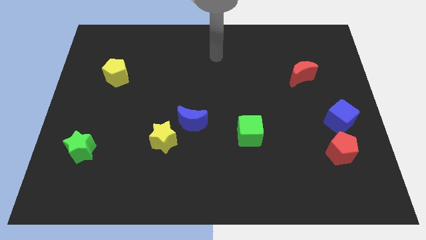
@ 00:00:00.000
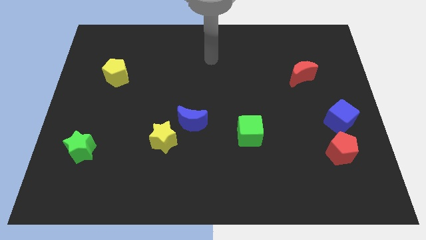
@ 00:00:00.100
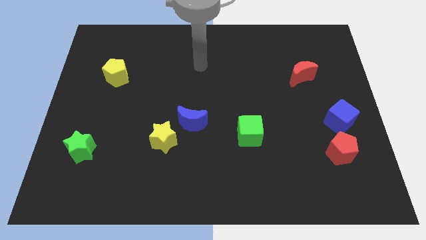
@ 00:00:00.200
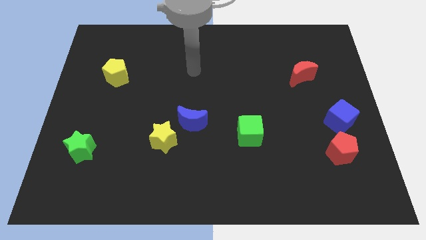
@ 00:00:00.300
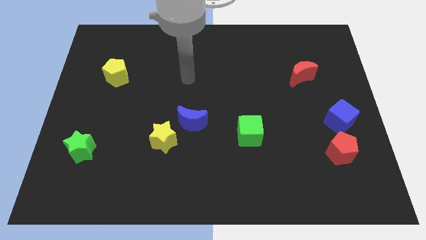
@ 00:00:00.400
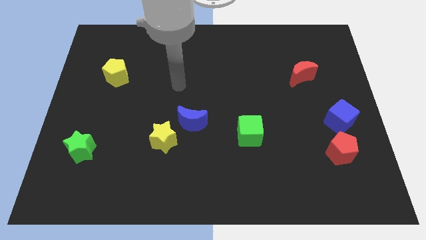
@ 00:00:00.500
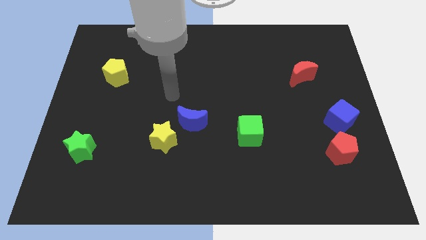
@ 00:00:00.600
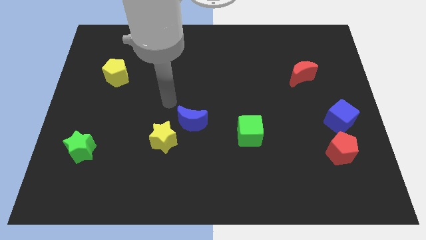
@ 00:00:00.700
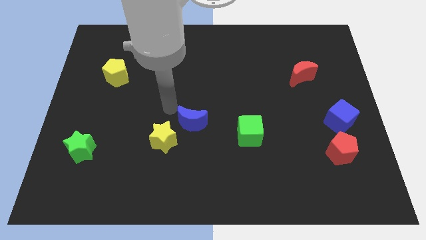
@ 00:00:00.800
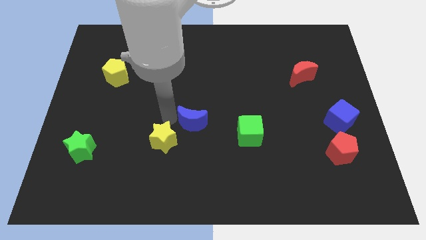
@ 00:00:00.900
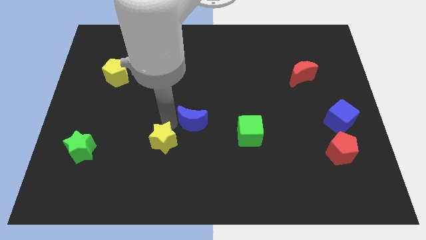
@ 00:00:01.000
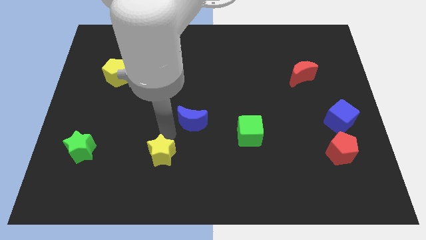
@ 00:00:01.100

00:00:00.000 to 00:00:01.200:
pull the blue moon apart from the yellow star

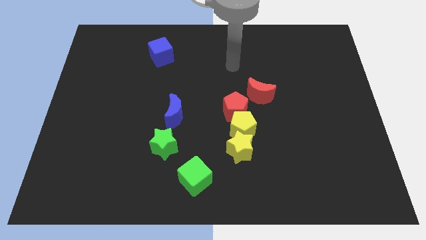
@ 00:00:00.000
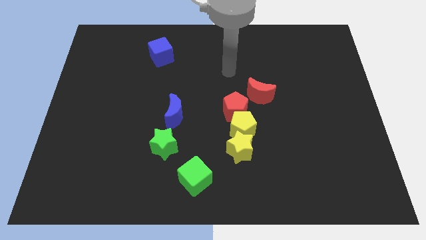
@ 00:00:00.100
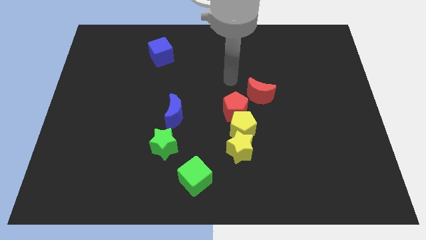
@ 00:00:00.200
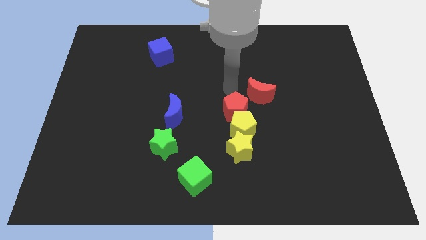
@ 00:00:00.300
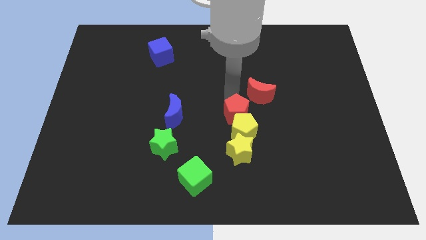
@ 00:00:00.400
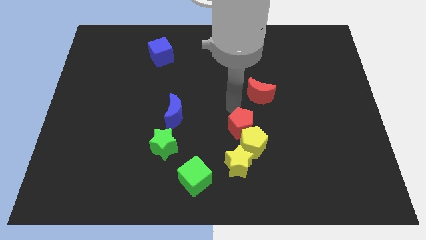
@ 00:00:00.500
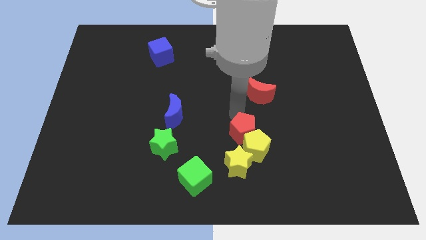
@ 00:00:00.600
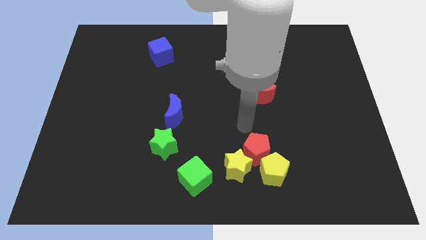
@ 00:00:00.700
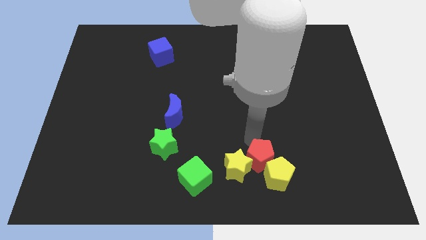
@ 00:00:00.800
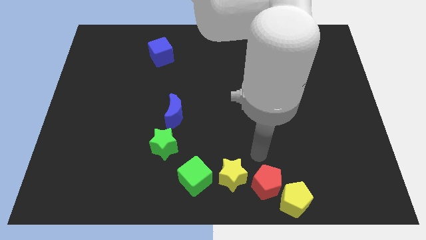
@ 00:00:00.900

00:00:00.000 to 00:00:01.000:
separate the yellow star from the yellow pentagon

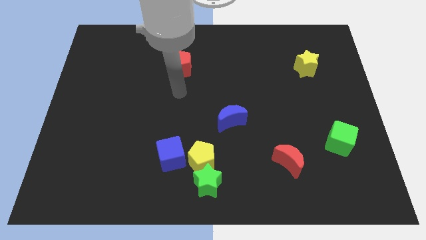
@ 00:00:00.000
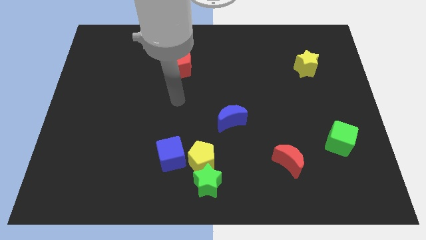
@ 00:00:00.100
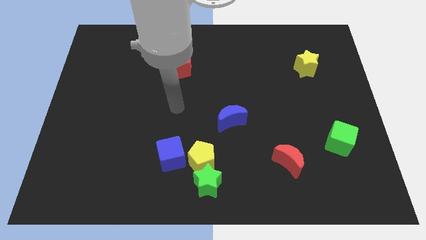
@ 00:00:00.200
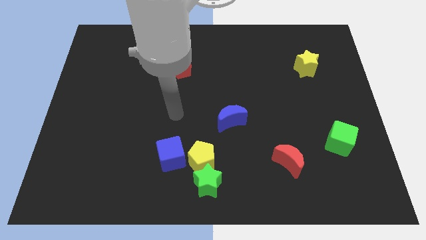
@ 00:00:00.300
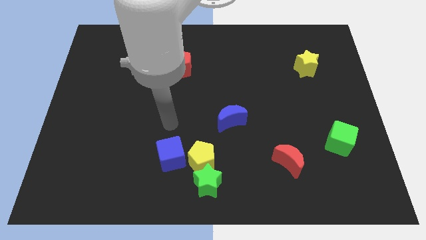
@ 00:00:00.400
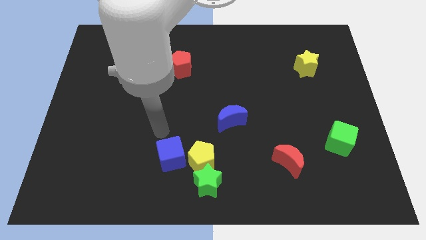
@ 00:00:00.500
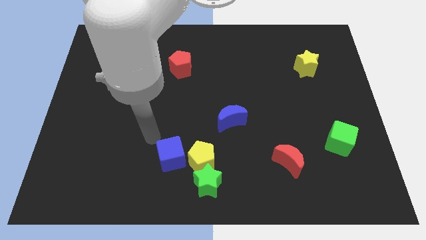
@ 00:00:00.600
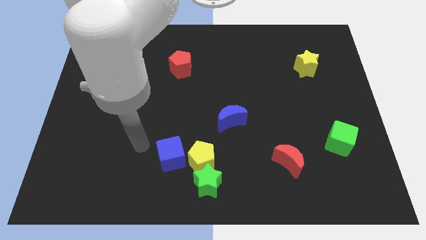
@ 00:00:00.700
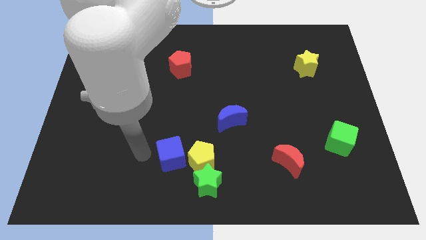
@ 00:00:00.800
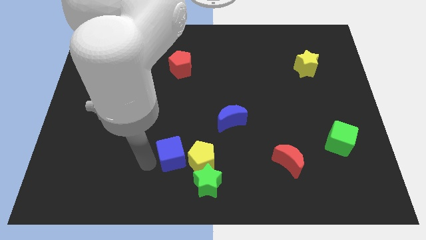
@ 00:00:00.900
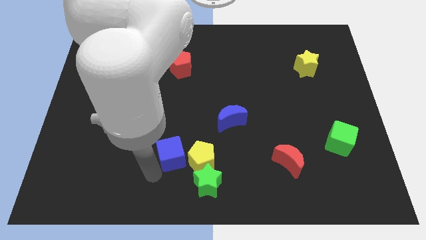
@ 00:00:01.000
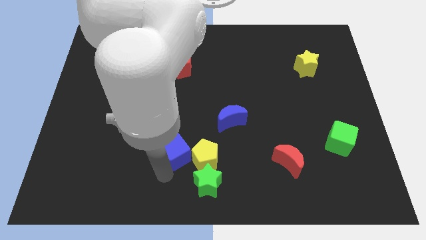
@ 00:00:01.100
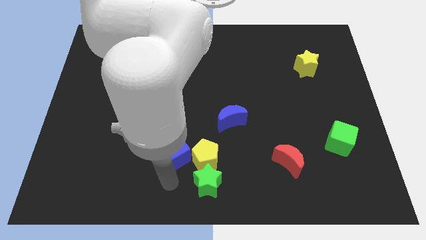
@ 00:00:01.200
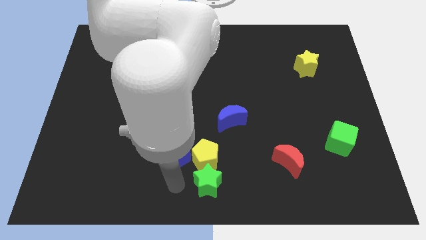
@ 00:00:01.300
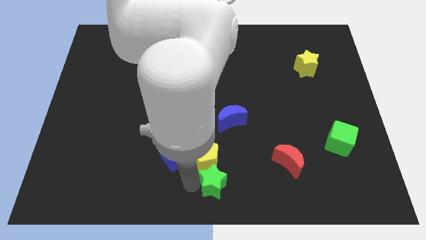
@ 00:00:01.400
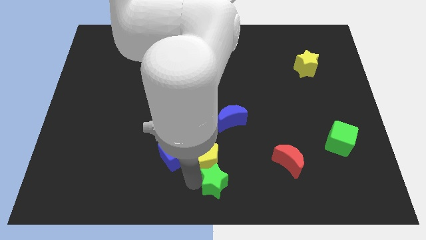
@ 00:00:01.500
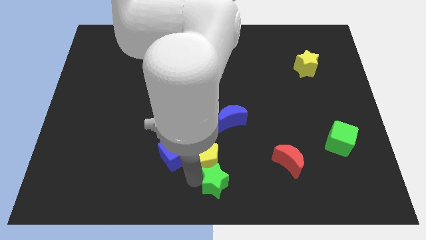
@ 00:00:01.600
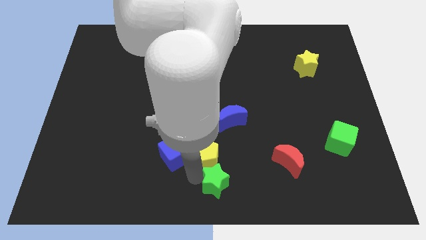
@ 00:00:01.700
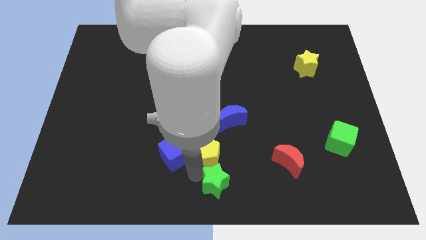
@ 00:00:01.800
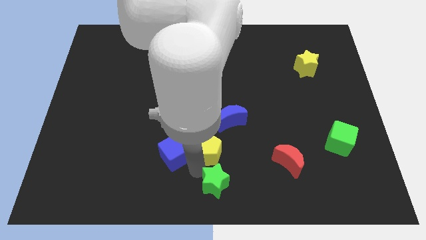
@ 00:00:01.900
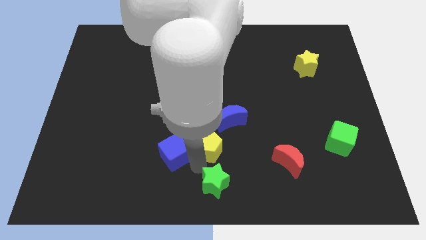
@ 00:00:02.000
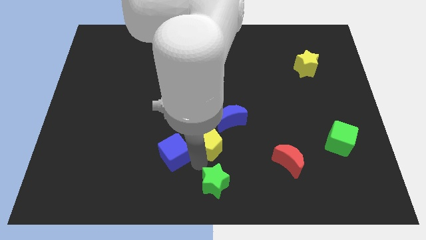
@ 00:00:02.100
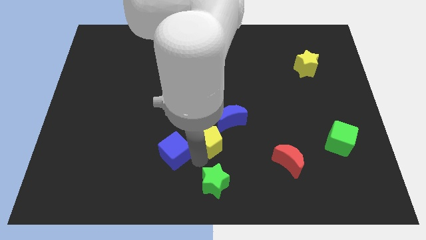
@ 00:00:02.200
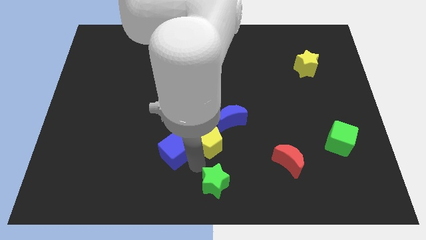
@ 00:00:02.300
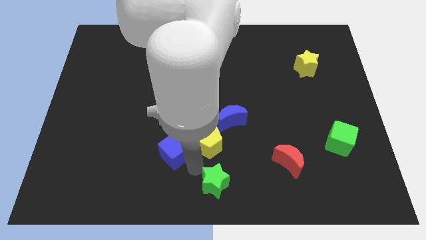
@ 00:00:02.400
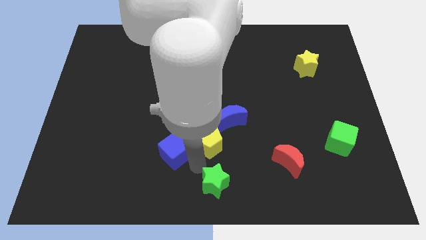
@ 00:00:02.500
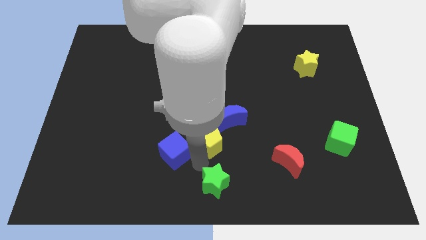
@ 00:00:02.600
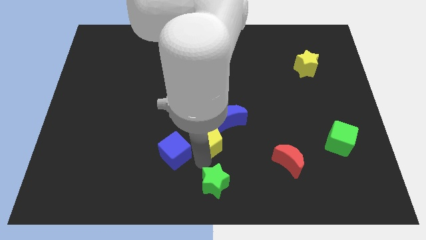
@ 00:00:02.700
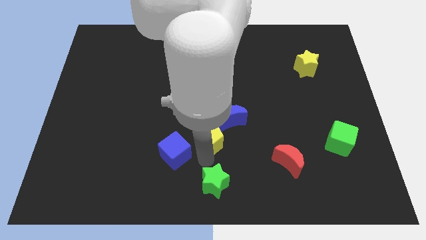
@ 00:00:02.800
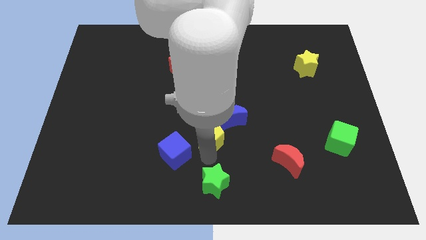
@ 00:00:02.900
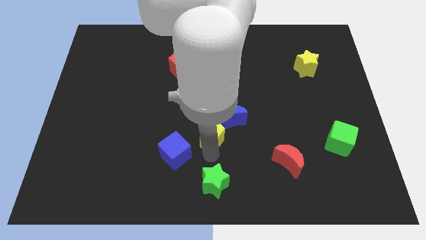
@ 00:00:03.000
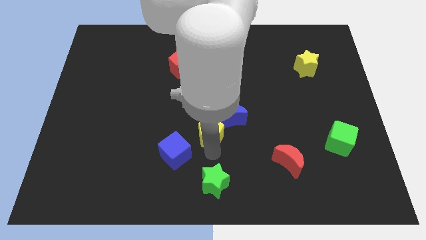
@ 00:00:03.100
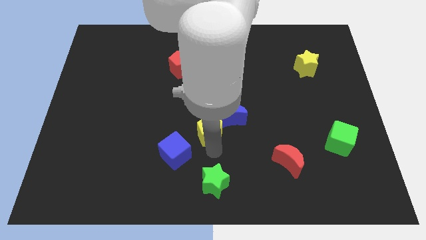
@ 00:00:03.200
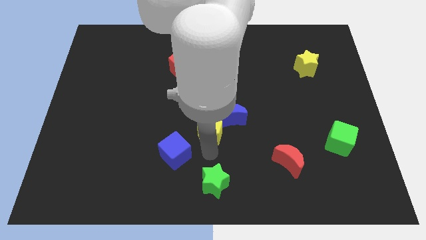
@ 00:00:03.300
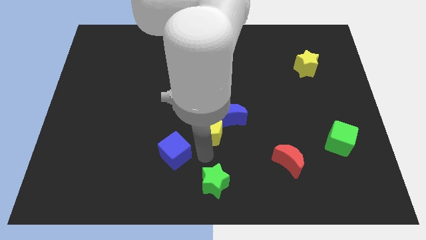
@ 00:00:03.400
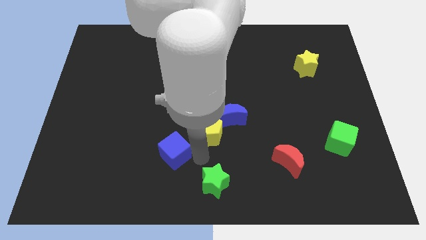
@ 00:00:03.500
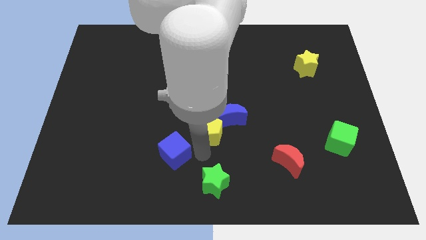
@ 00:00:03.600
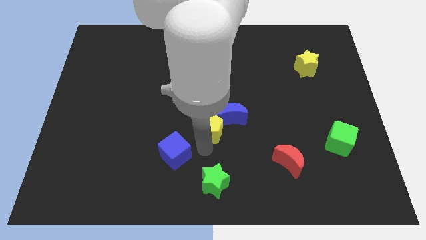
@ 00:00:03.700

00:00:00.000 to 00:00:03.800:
separate the yellow pentagon from the green star and blue cube

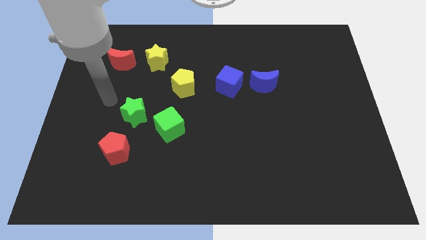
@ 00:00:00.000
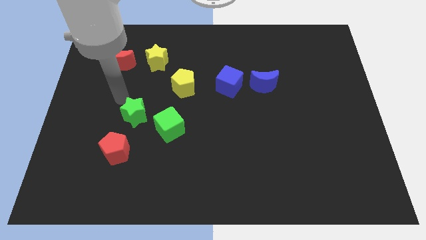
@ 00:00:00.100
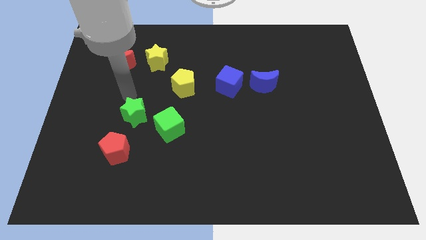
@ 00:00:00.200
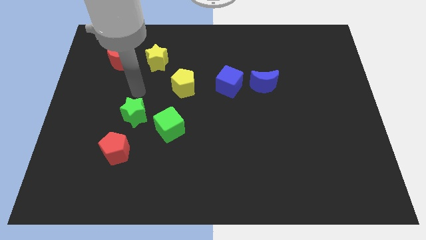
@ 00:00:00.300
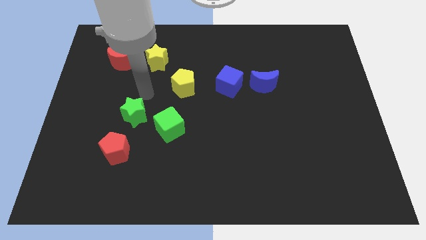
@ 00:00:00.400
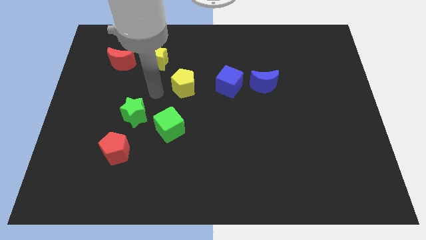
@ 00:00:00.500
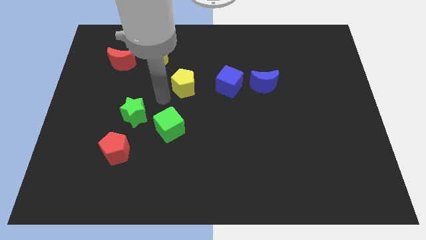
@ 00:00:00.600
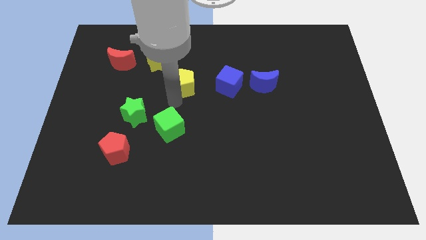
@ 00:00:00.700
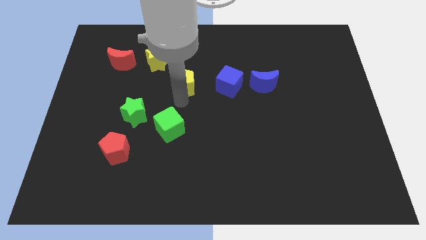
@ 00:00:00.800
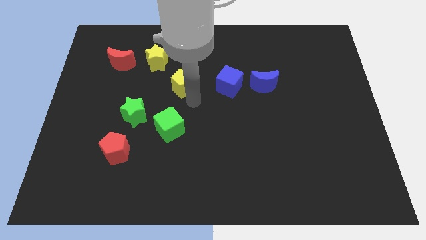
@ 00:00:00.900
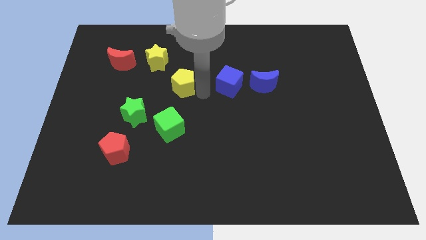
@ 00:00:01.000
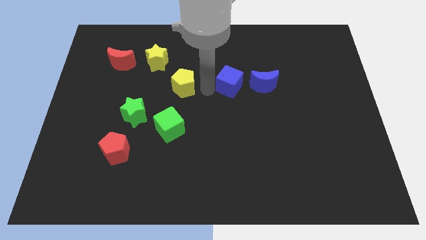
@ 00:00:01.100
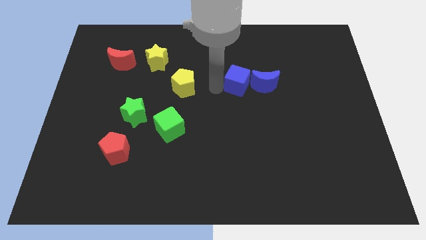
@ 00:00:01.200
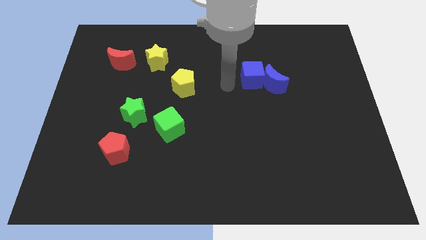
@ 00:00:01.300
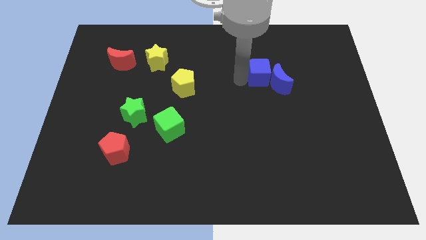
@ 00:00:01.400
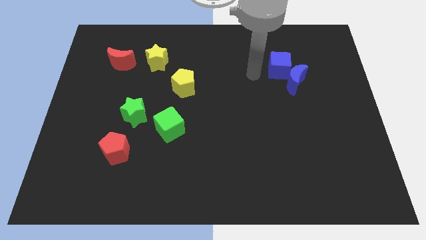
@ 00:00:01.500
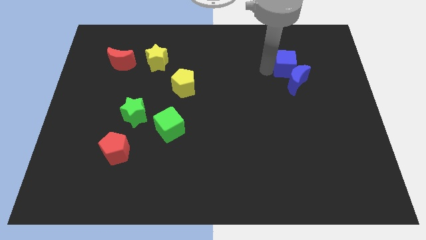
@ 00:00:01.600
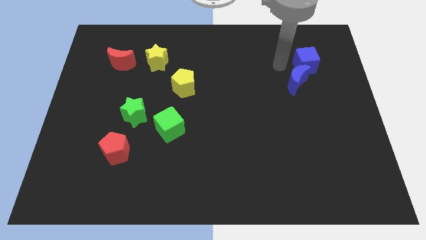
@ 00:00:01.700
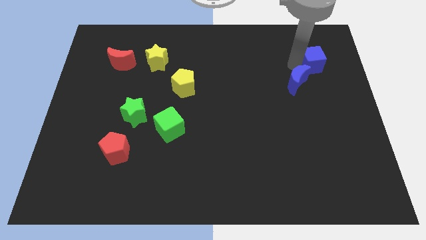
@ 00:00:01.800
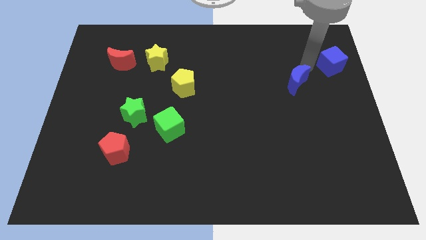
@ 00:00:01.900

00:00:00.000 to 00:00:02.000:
pull the blue moon apart from the blue cube

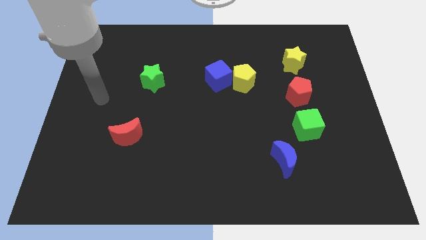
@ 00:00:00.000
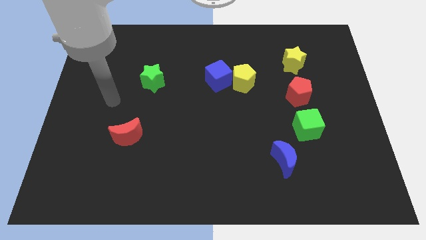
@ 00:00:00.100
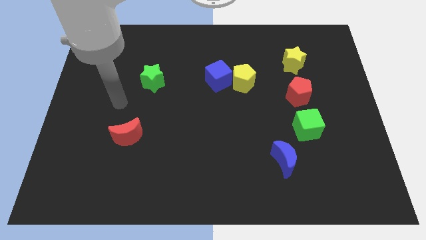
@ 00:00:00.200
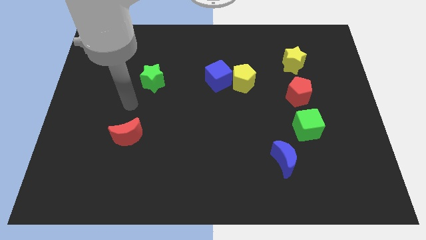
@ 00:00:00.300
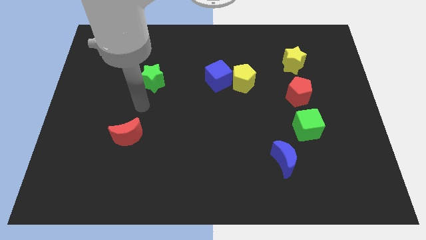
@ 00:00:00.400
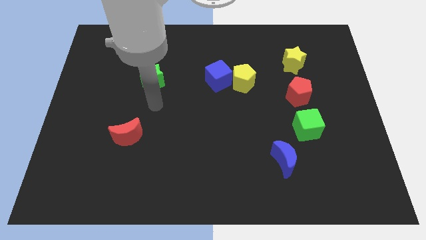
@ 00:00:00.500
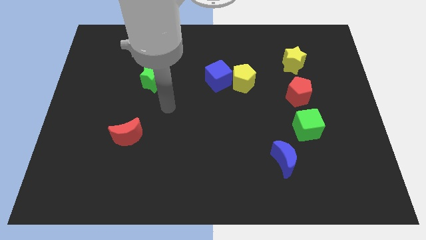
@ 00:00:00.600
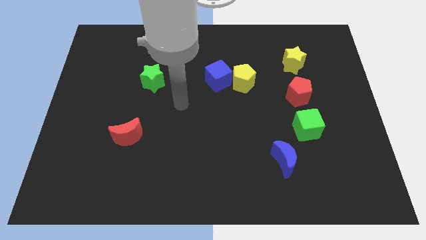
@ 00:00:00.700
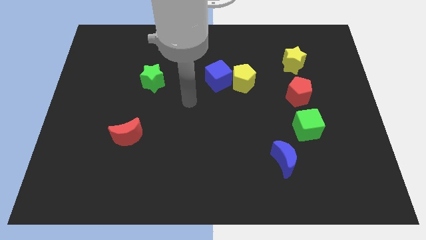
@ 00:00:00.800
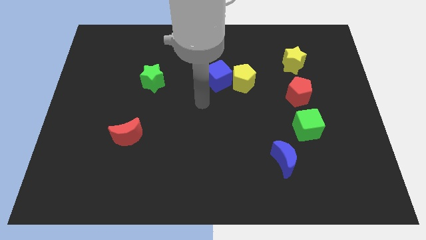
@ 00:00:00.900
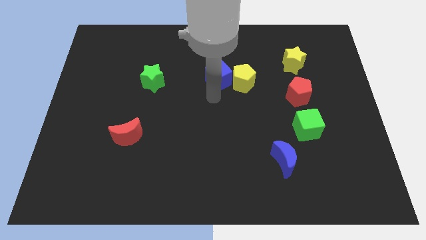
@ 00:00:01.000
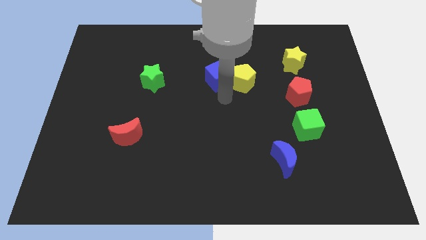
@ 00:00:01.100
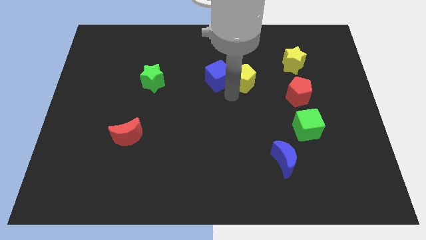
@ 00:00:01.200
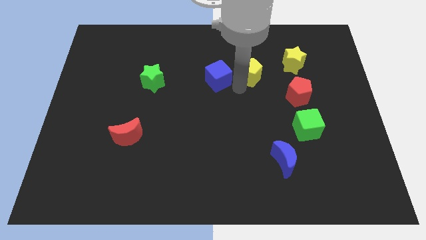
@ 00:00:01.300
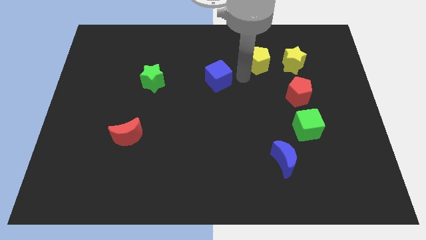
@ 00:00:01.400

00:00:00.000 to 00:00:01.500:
move the blue cube away from the yellow pentagon
